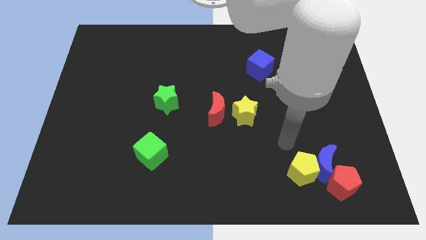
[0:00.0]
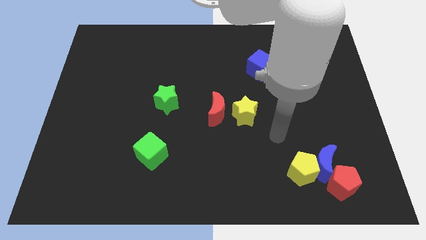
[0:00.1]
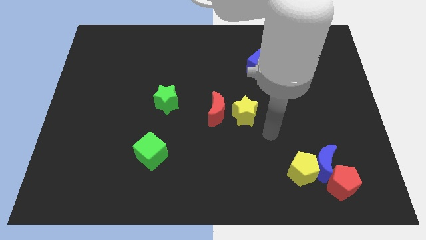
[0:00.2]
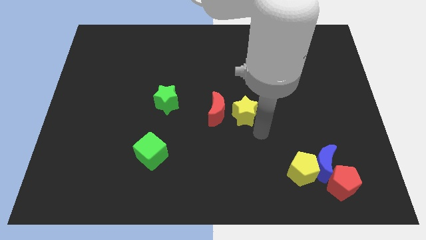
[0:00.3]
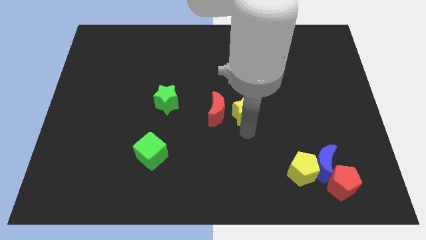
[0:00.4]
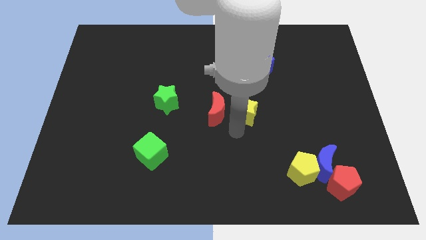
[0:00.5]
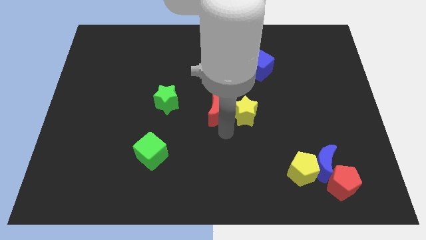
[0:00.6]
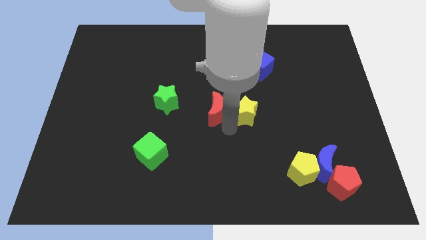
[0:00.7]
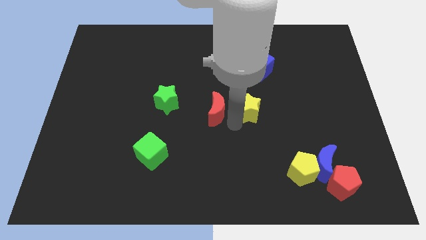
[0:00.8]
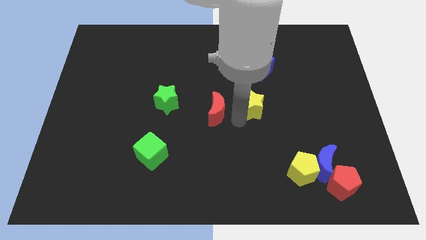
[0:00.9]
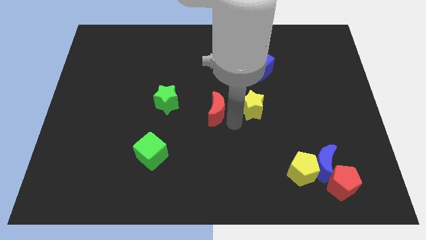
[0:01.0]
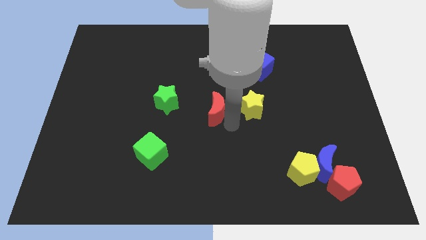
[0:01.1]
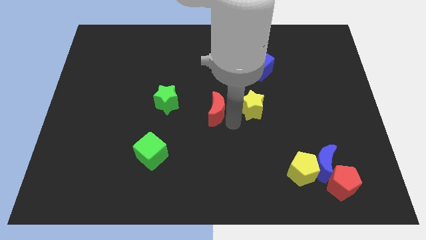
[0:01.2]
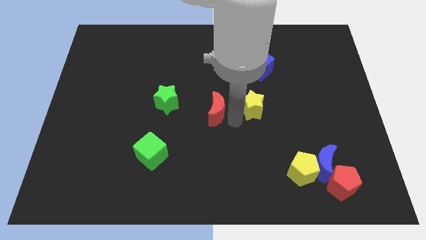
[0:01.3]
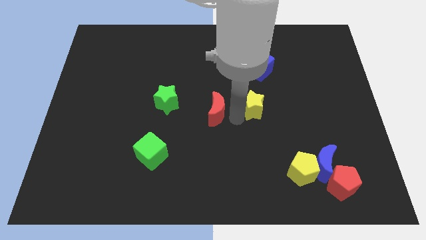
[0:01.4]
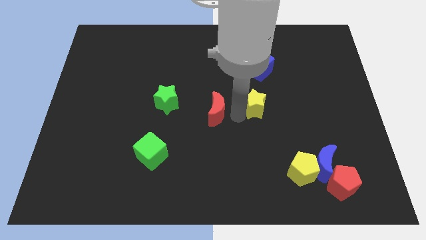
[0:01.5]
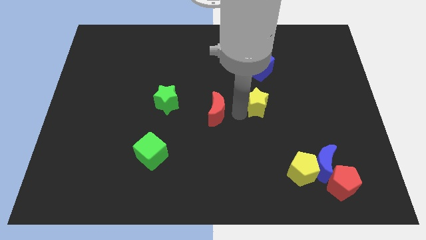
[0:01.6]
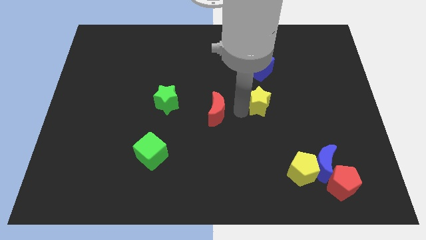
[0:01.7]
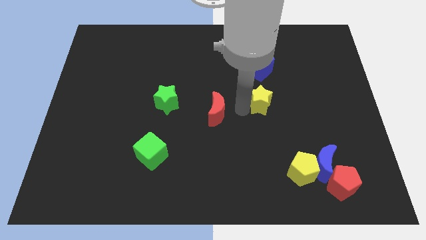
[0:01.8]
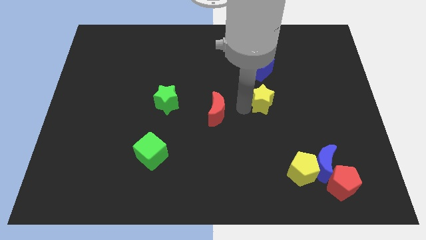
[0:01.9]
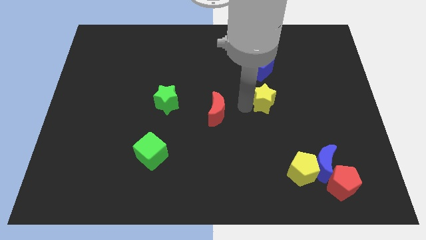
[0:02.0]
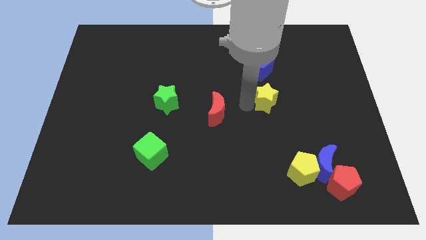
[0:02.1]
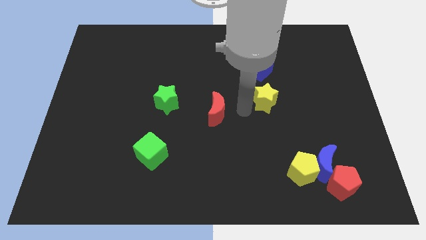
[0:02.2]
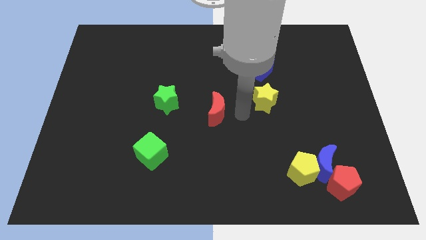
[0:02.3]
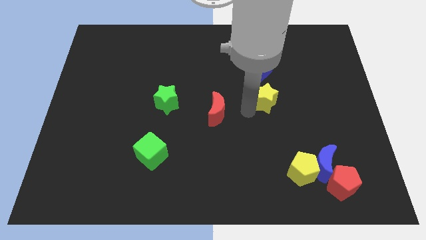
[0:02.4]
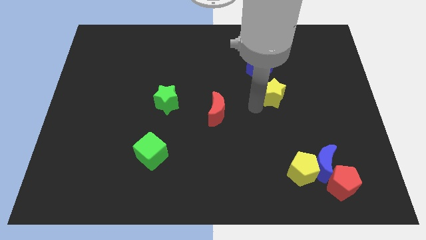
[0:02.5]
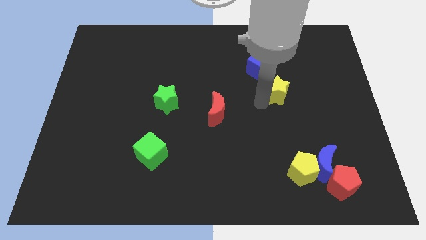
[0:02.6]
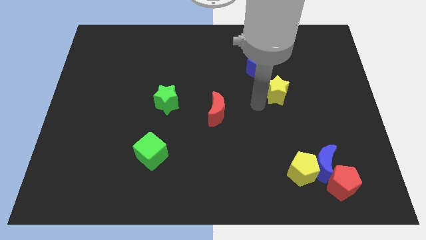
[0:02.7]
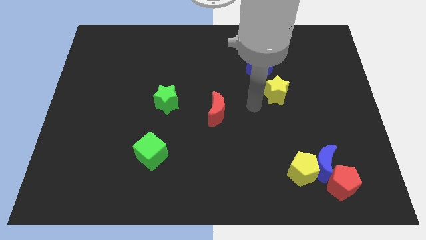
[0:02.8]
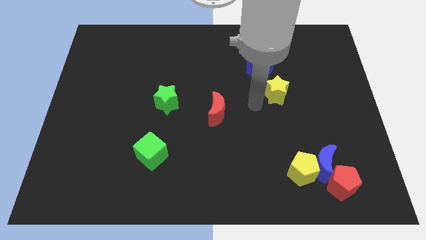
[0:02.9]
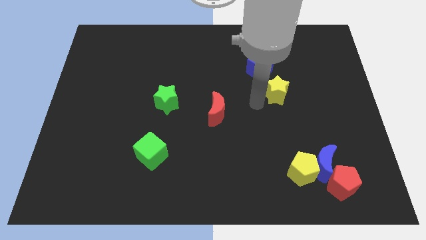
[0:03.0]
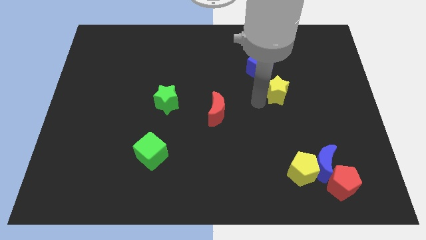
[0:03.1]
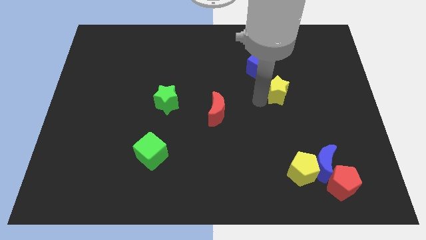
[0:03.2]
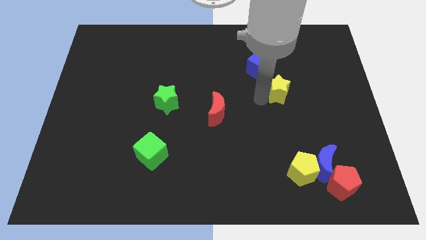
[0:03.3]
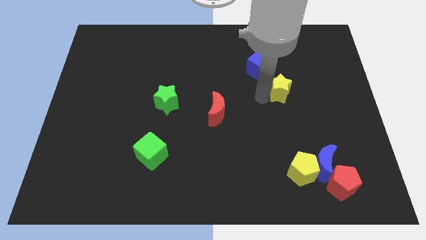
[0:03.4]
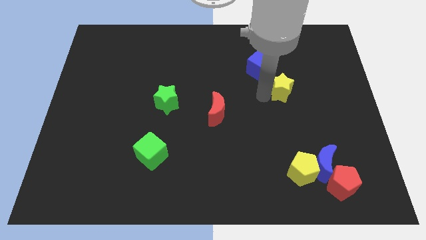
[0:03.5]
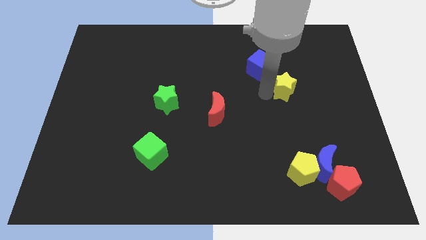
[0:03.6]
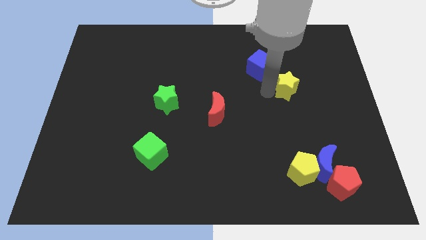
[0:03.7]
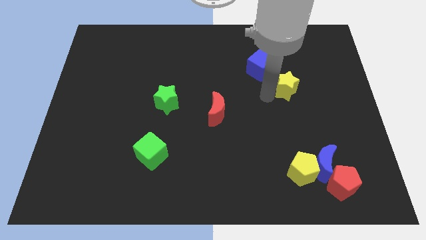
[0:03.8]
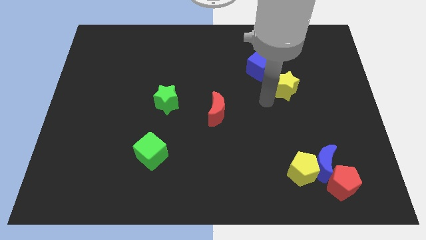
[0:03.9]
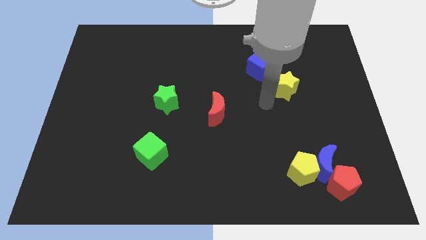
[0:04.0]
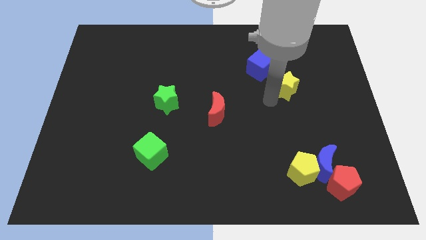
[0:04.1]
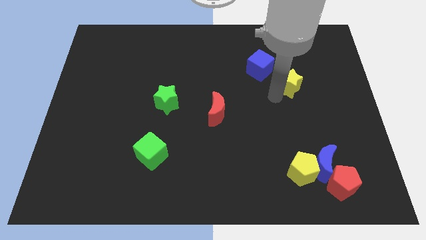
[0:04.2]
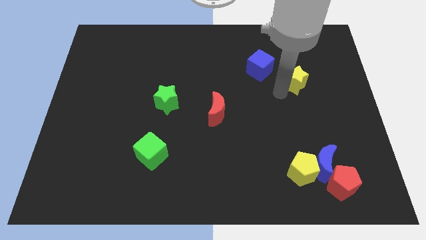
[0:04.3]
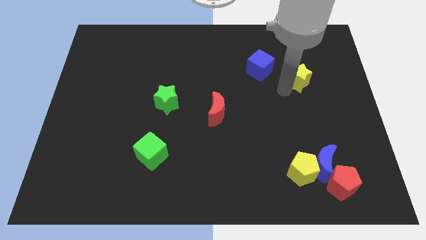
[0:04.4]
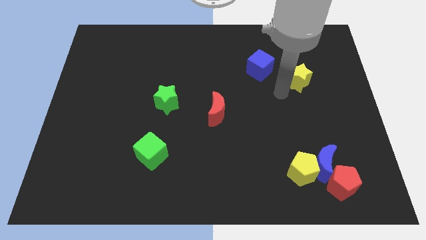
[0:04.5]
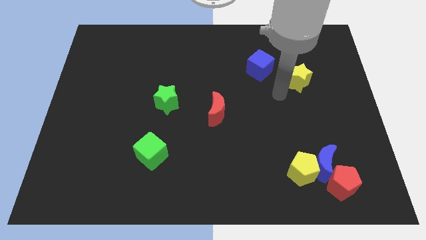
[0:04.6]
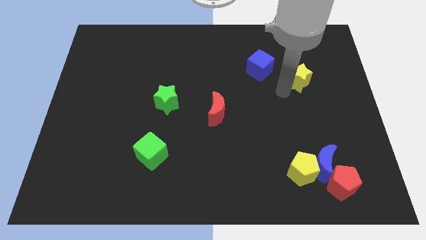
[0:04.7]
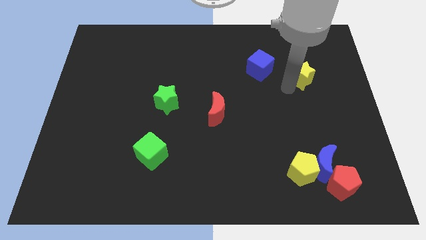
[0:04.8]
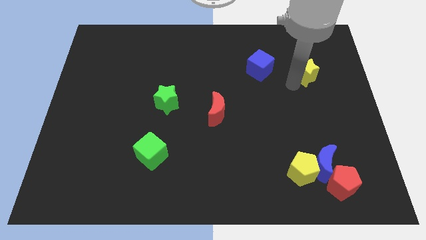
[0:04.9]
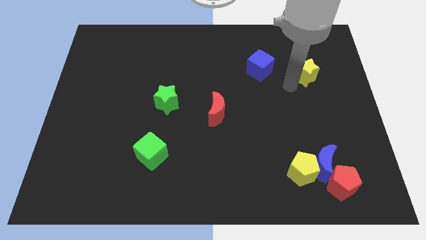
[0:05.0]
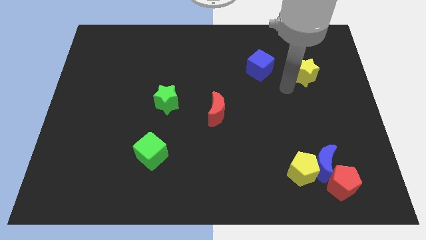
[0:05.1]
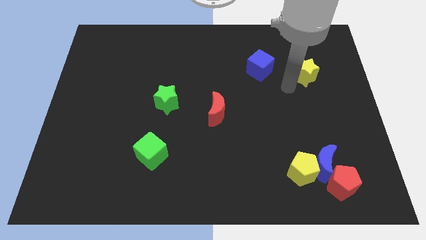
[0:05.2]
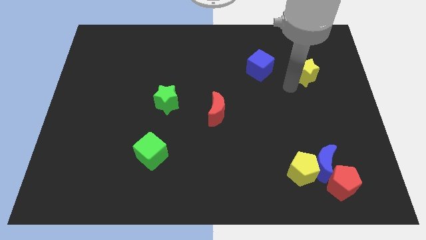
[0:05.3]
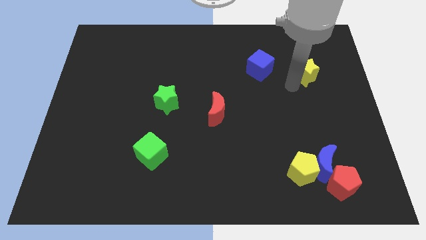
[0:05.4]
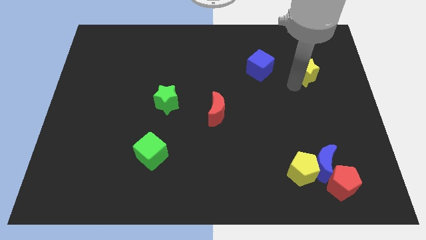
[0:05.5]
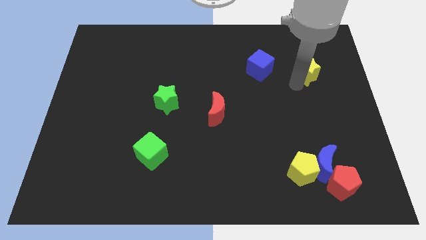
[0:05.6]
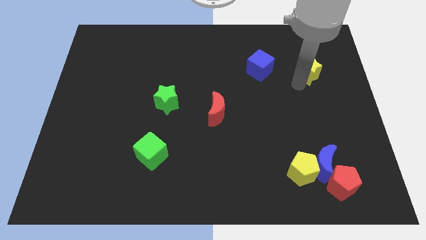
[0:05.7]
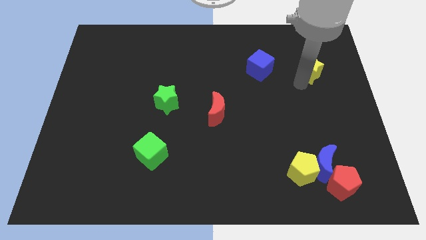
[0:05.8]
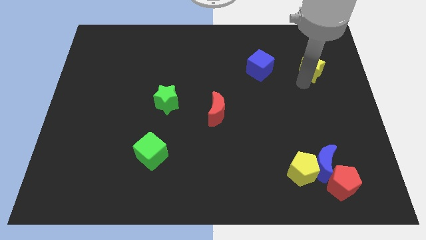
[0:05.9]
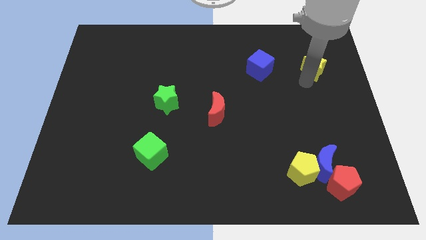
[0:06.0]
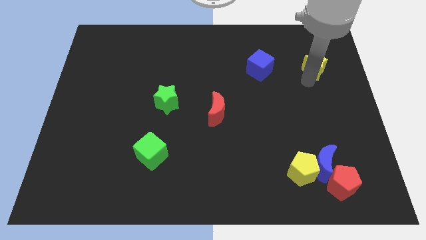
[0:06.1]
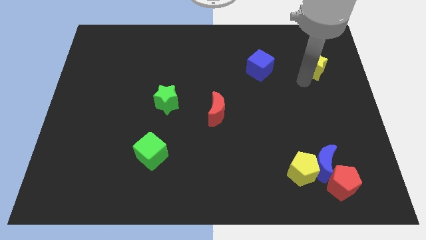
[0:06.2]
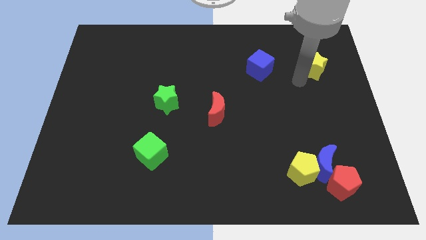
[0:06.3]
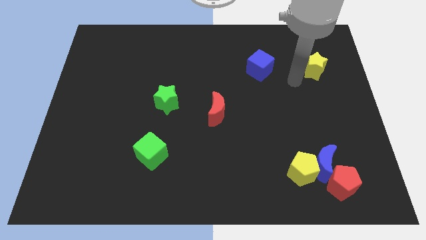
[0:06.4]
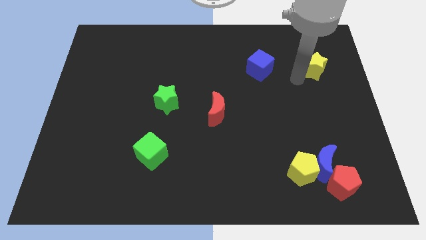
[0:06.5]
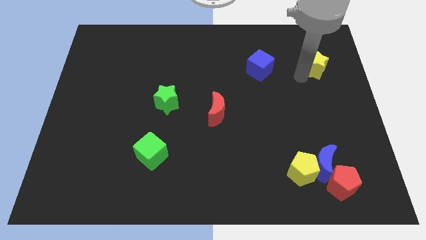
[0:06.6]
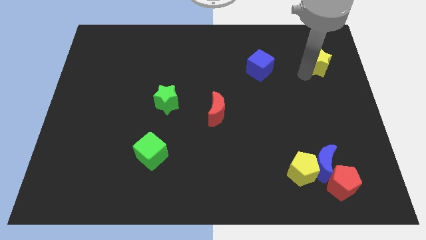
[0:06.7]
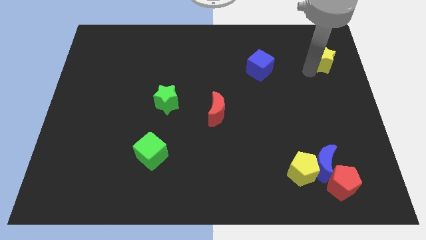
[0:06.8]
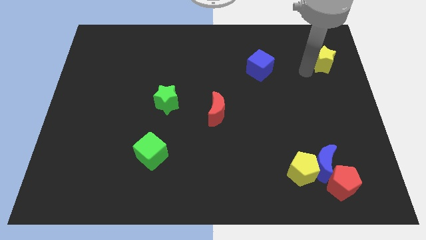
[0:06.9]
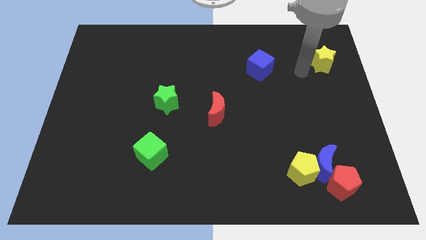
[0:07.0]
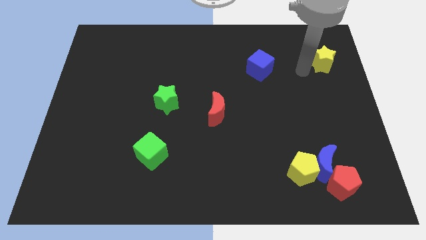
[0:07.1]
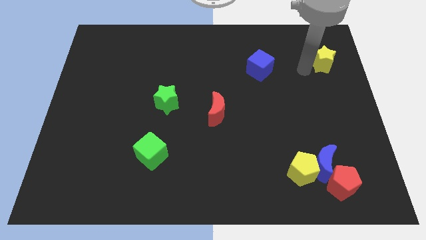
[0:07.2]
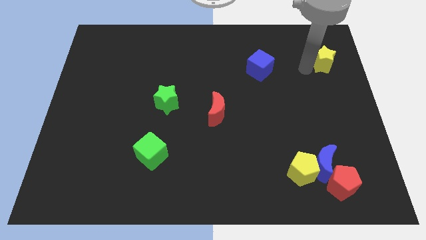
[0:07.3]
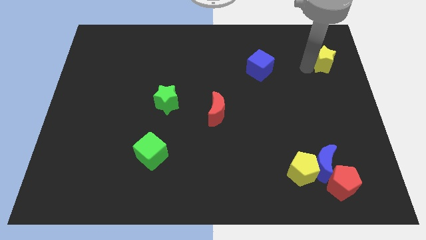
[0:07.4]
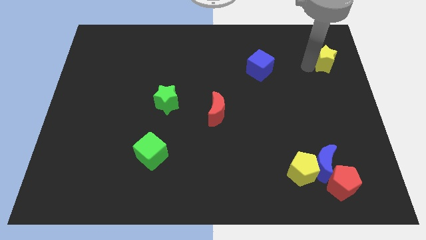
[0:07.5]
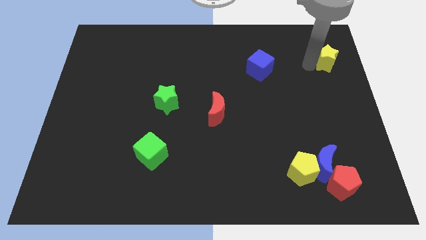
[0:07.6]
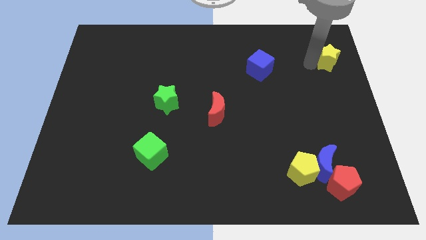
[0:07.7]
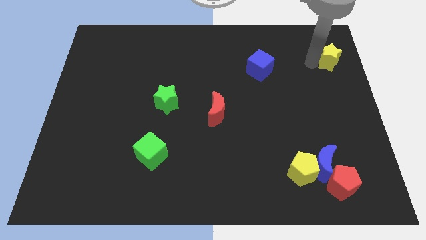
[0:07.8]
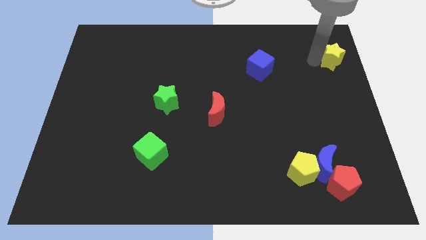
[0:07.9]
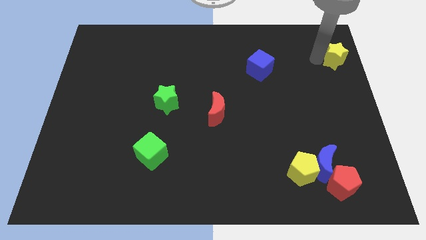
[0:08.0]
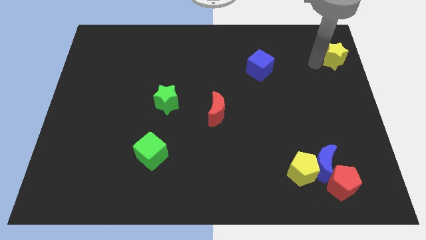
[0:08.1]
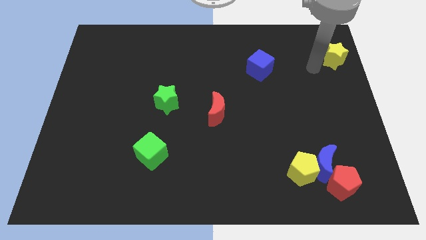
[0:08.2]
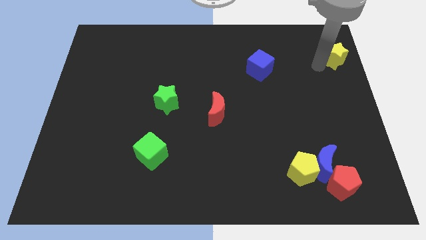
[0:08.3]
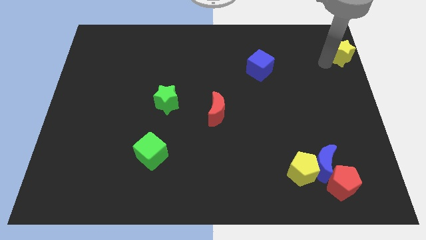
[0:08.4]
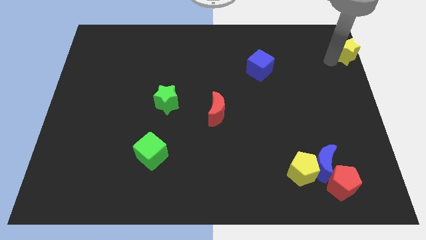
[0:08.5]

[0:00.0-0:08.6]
put the yellow star to the top right
